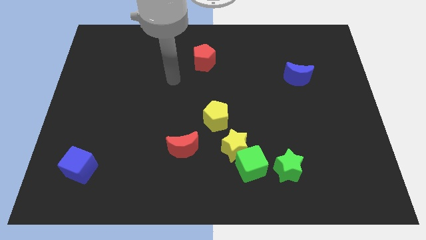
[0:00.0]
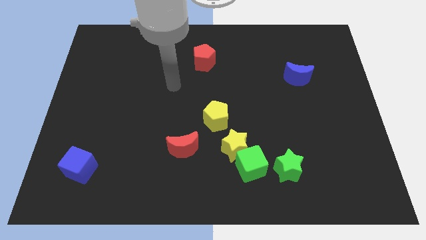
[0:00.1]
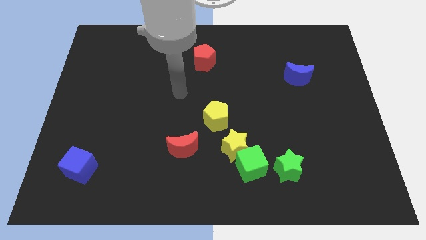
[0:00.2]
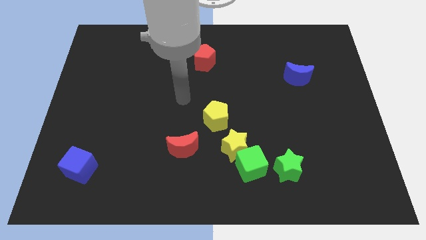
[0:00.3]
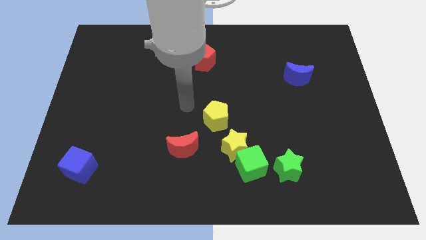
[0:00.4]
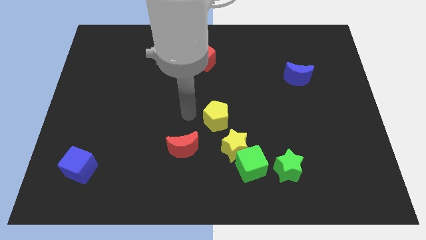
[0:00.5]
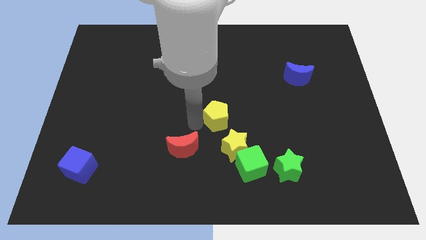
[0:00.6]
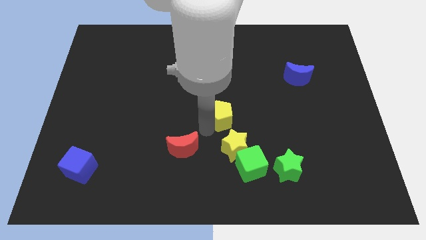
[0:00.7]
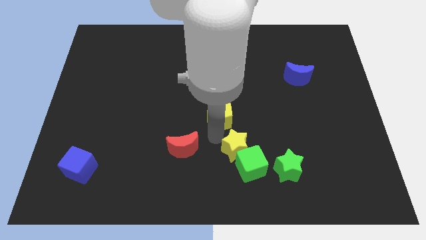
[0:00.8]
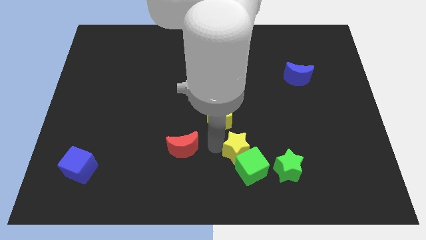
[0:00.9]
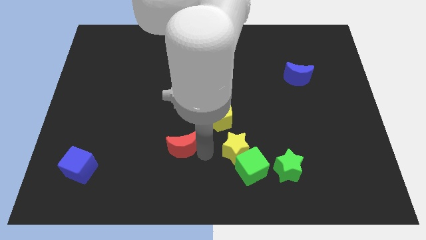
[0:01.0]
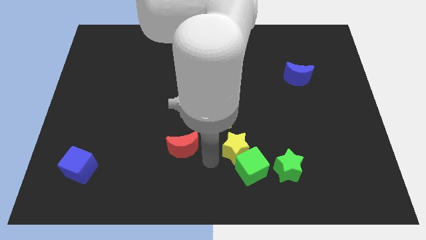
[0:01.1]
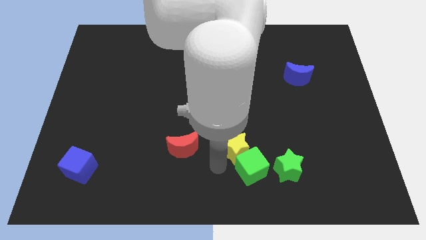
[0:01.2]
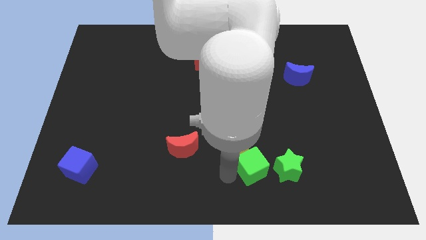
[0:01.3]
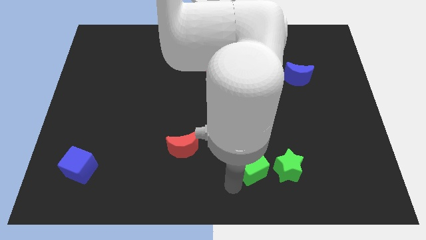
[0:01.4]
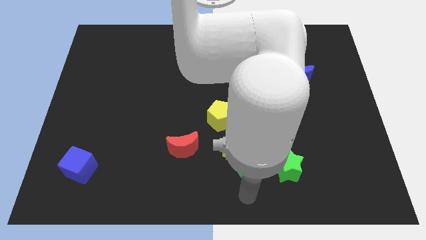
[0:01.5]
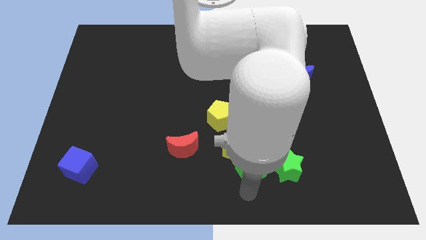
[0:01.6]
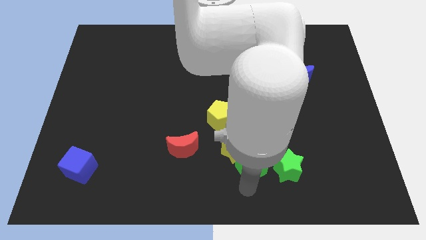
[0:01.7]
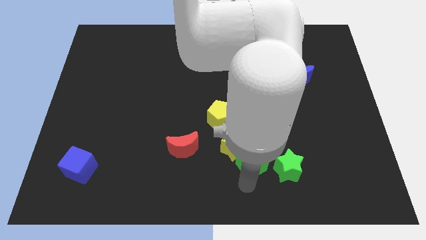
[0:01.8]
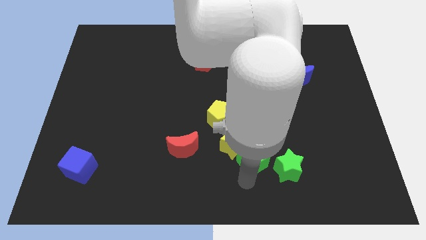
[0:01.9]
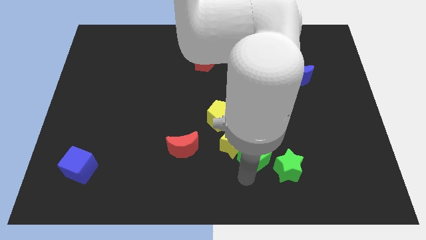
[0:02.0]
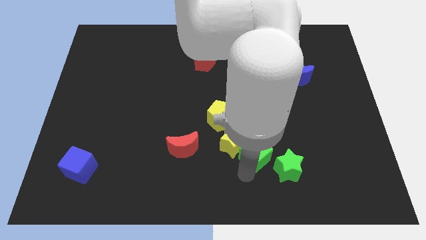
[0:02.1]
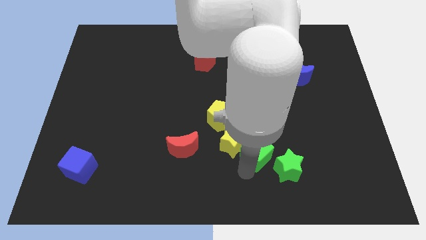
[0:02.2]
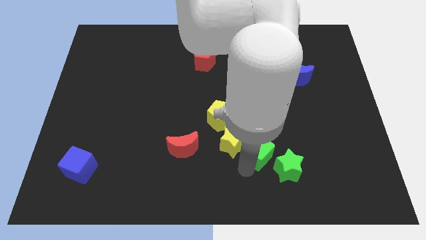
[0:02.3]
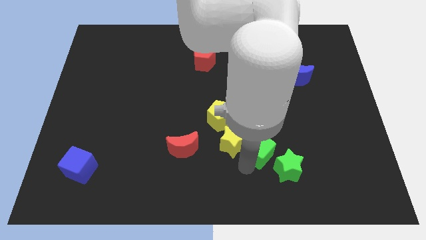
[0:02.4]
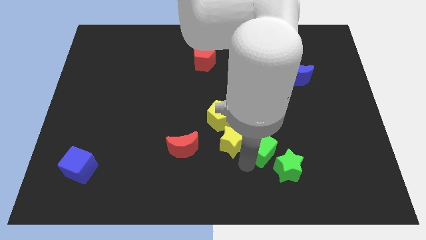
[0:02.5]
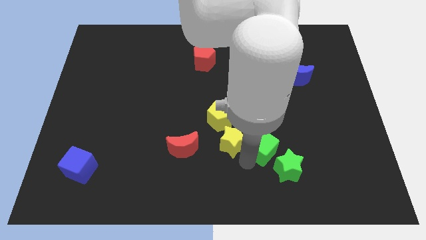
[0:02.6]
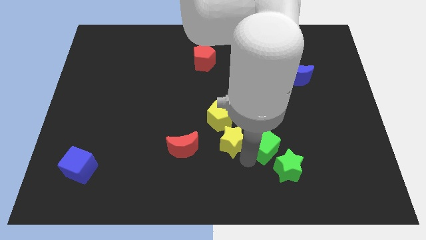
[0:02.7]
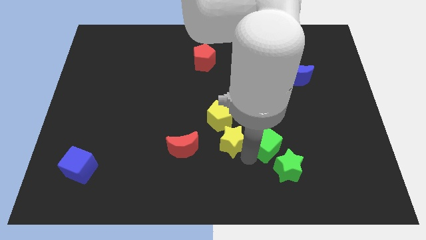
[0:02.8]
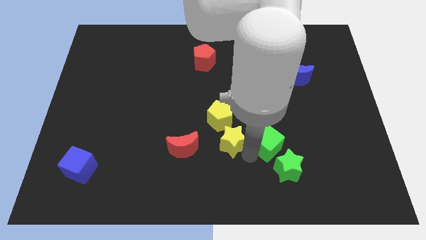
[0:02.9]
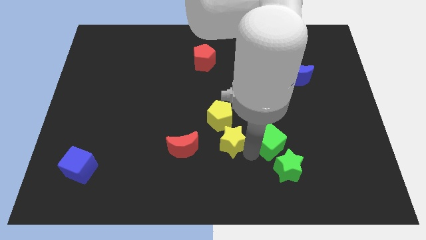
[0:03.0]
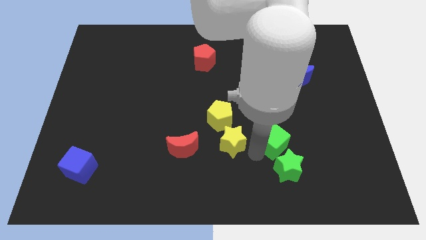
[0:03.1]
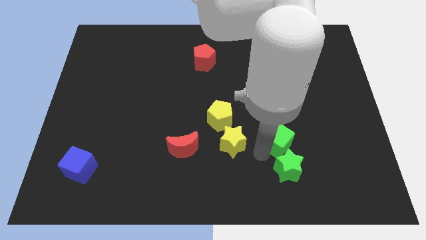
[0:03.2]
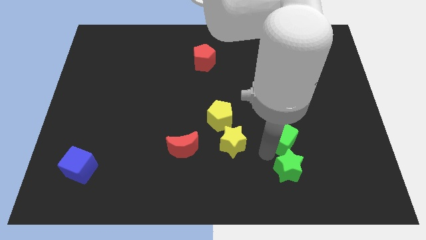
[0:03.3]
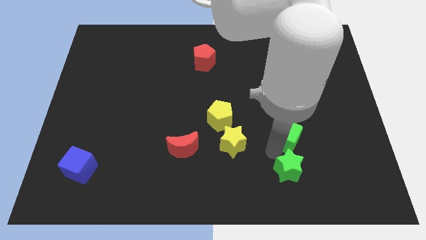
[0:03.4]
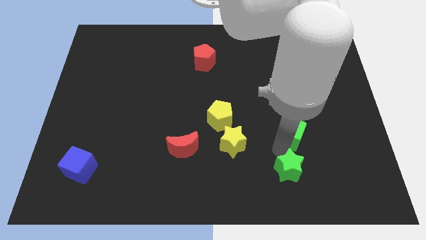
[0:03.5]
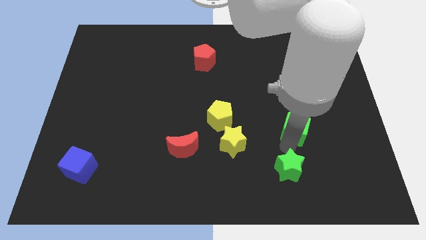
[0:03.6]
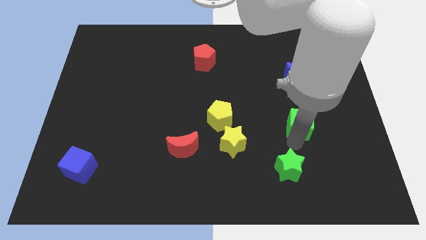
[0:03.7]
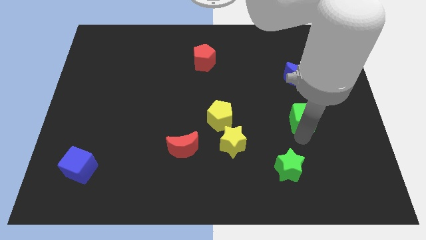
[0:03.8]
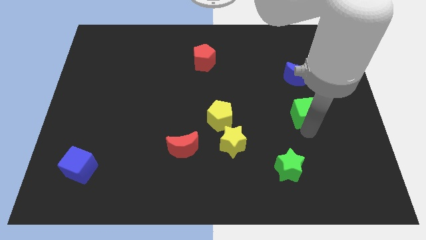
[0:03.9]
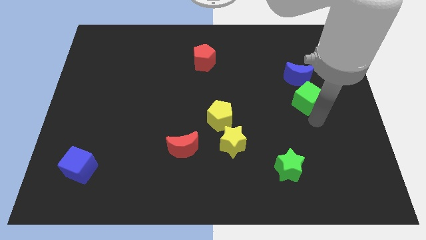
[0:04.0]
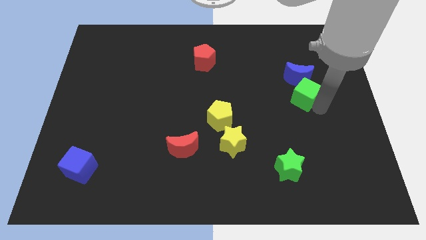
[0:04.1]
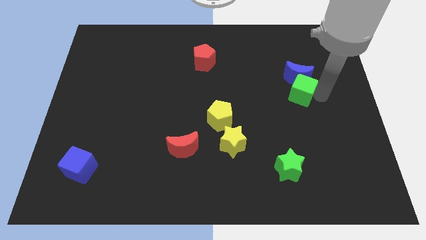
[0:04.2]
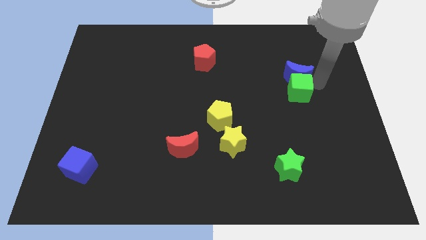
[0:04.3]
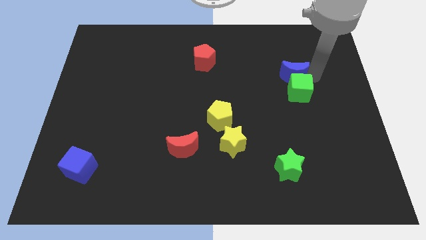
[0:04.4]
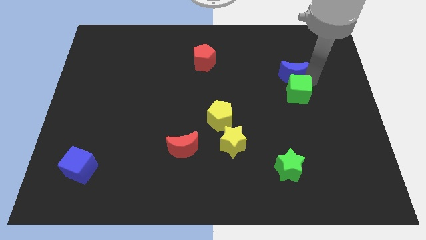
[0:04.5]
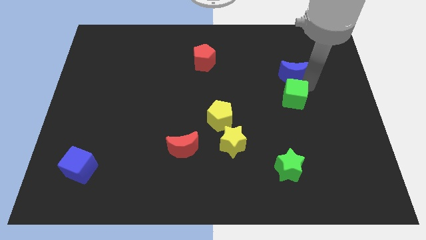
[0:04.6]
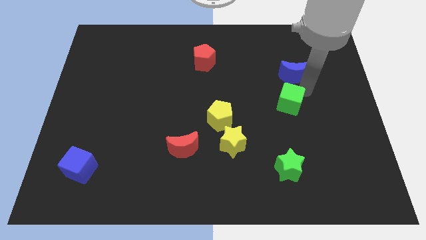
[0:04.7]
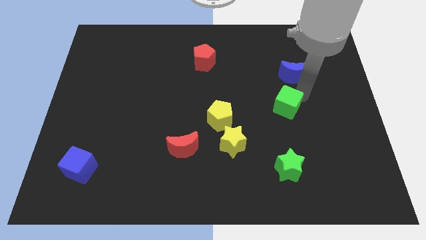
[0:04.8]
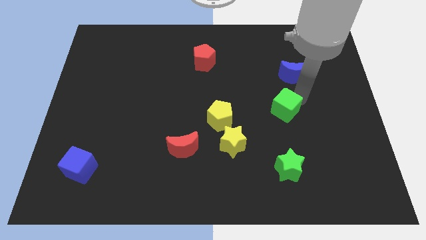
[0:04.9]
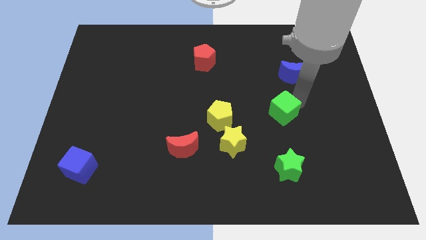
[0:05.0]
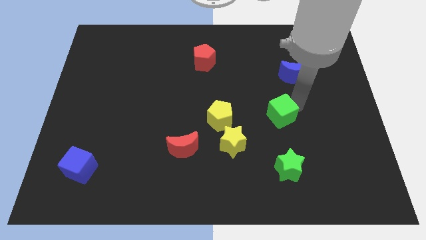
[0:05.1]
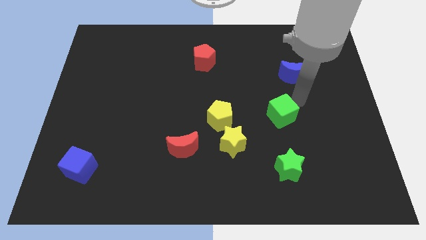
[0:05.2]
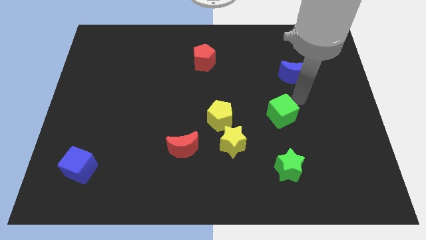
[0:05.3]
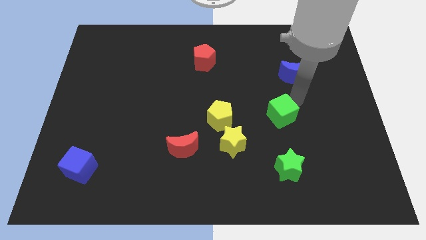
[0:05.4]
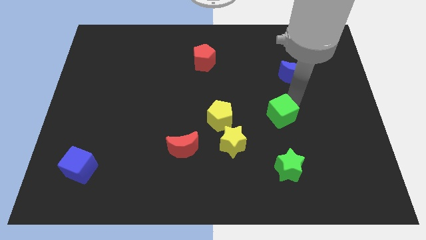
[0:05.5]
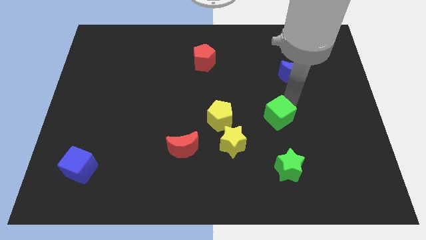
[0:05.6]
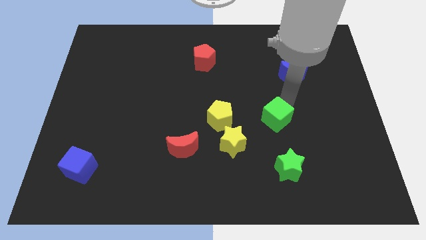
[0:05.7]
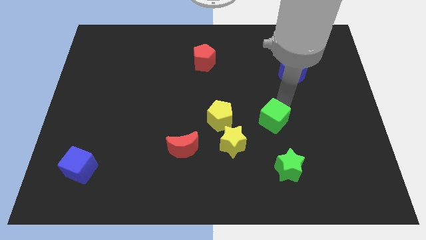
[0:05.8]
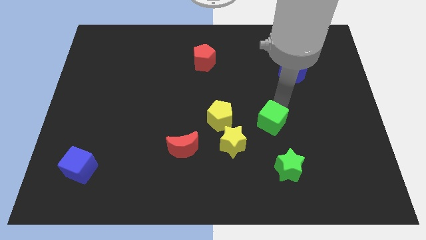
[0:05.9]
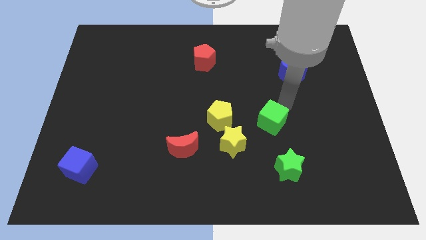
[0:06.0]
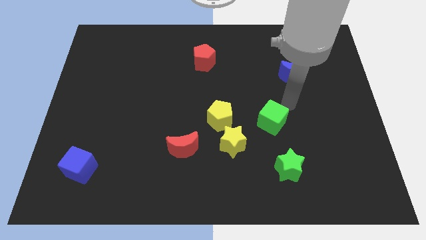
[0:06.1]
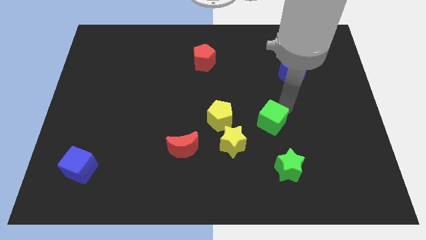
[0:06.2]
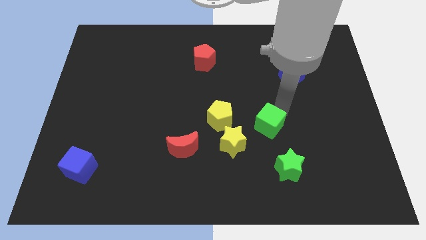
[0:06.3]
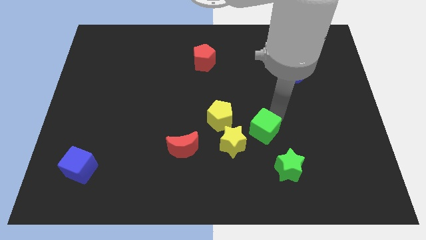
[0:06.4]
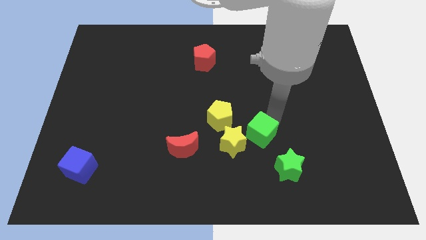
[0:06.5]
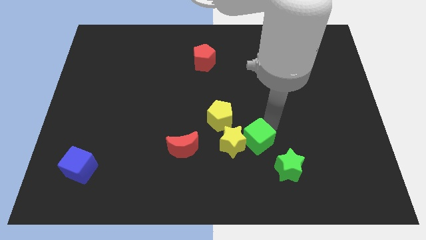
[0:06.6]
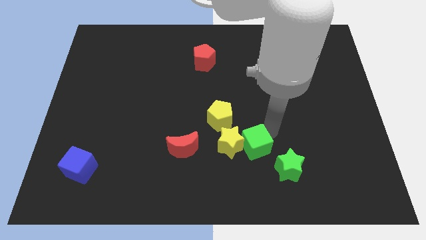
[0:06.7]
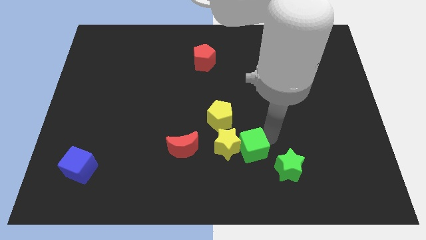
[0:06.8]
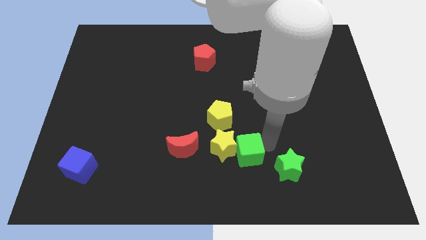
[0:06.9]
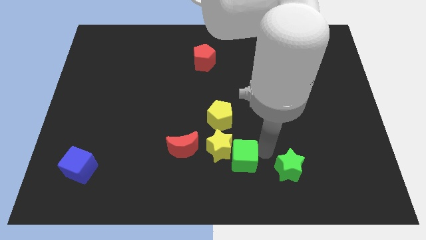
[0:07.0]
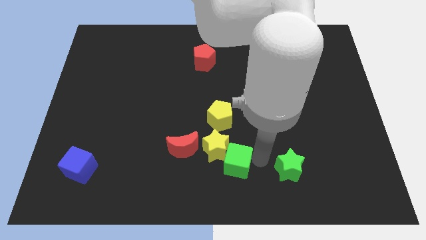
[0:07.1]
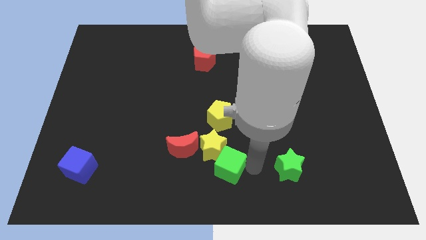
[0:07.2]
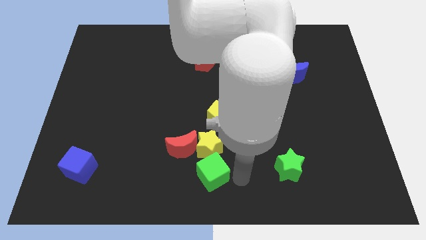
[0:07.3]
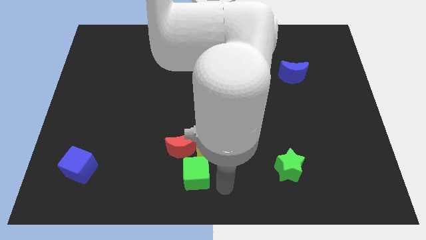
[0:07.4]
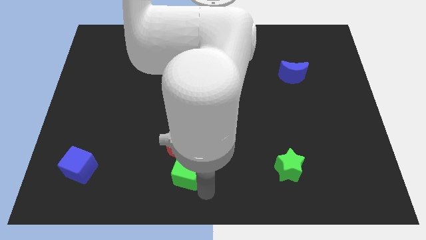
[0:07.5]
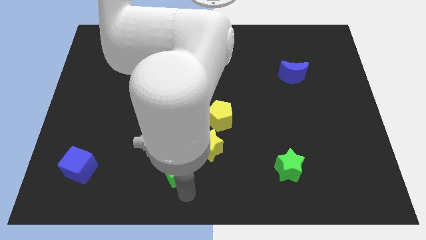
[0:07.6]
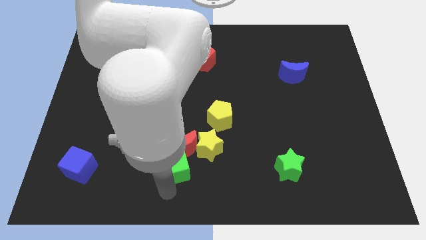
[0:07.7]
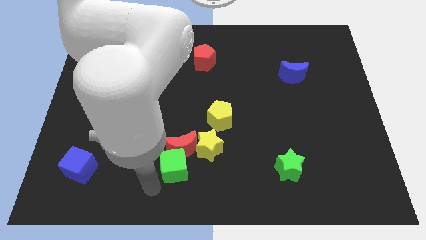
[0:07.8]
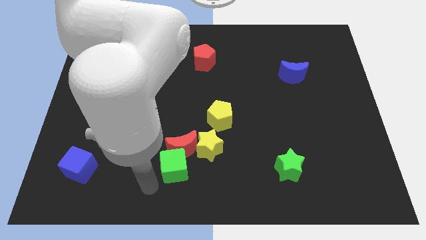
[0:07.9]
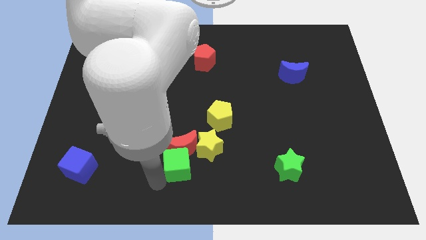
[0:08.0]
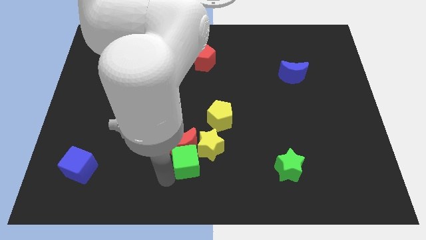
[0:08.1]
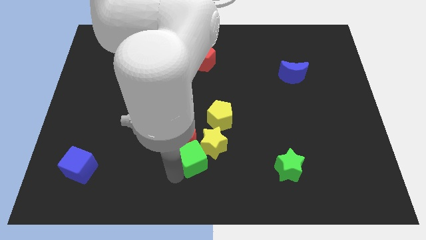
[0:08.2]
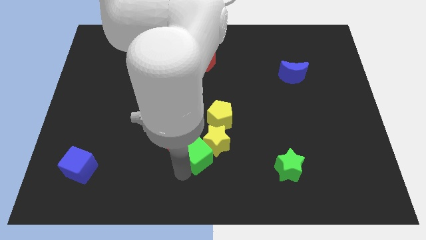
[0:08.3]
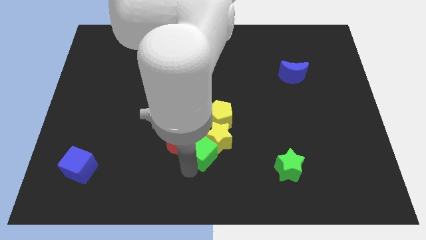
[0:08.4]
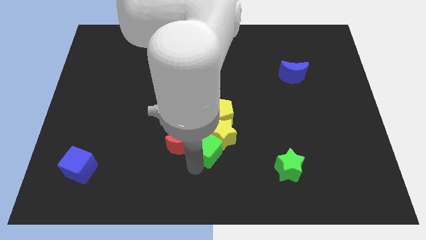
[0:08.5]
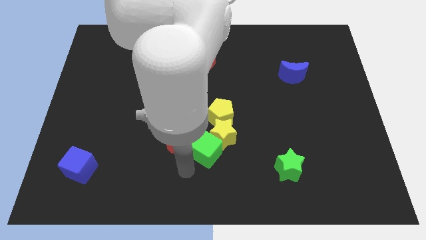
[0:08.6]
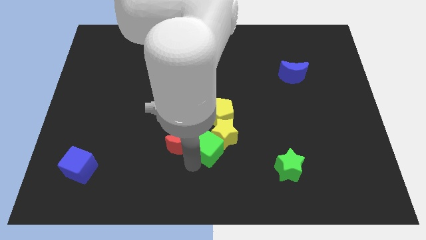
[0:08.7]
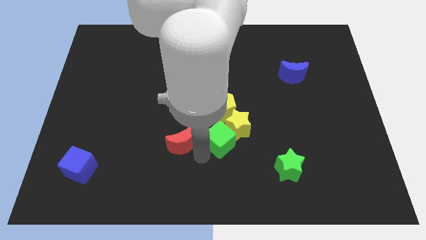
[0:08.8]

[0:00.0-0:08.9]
push the green cube to the middle of the board
